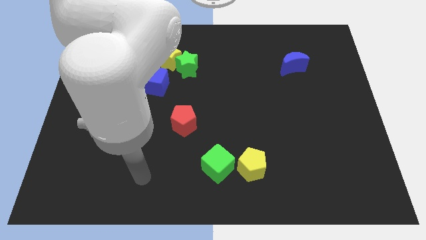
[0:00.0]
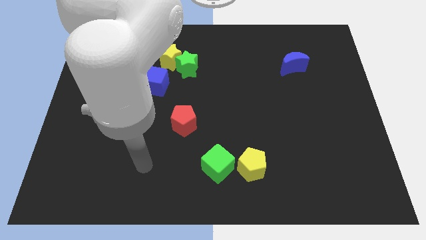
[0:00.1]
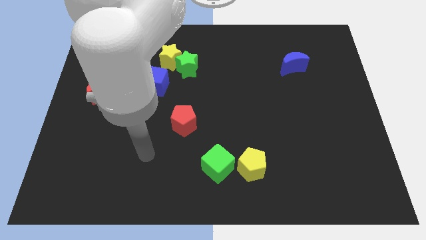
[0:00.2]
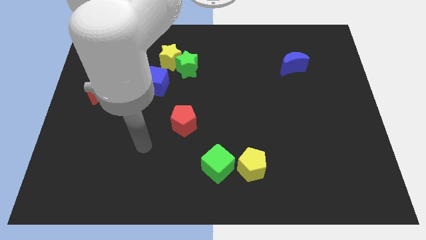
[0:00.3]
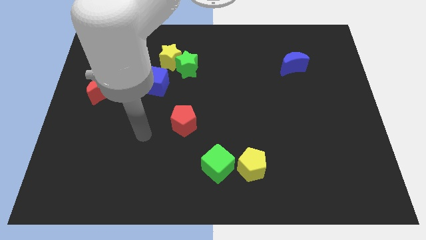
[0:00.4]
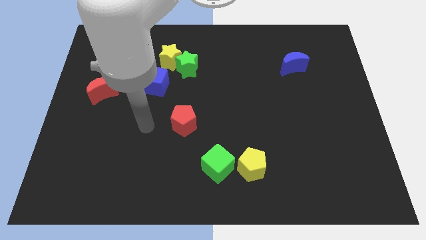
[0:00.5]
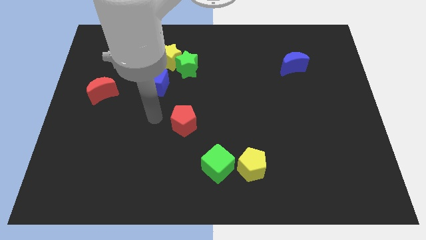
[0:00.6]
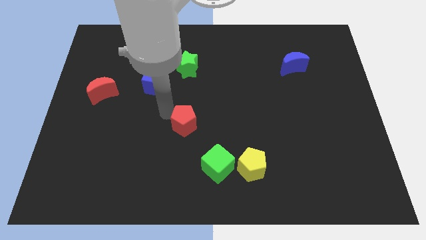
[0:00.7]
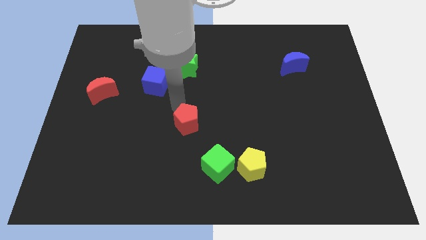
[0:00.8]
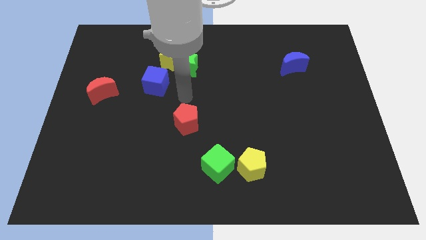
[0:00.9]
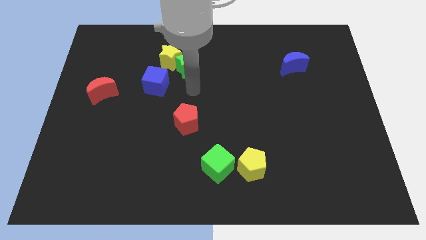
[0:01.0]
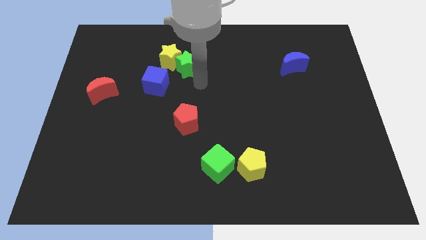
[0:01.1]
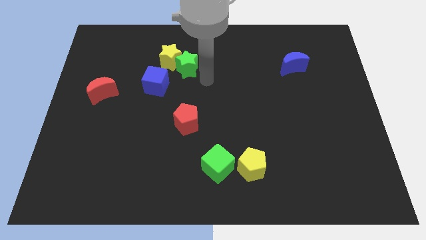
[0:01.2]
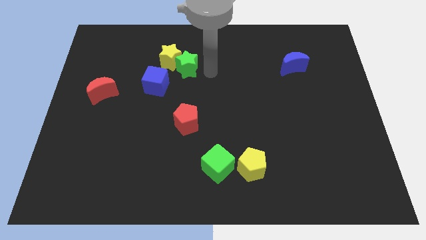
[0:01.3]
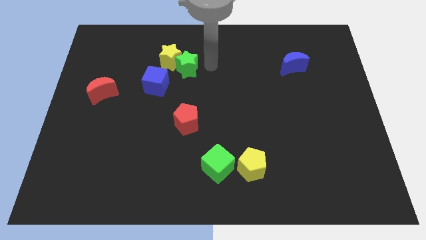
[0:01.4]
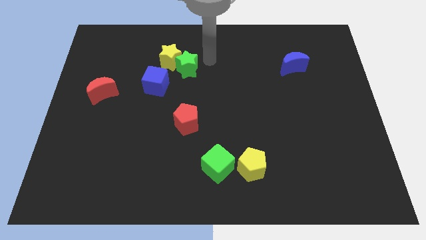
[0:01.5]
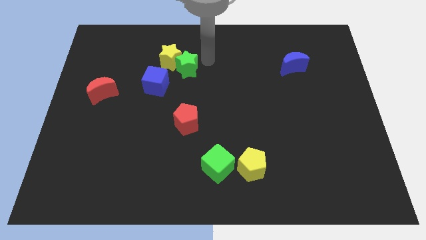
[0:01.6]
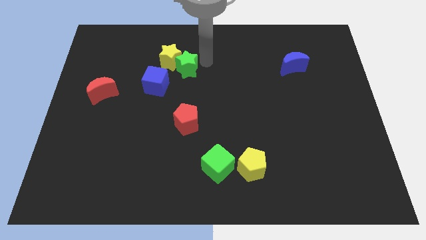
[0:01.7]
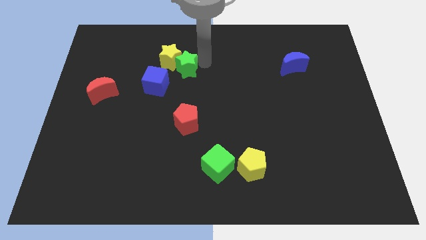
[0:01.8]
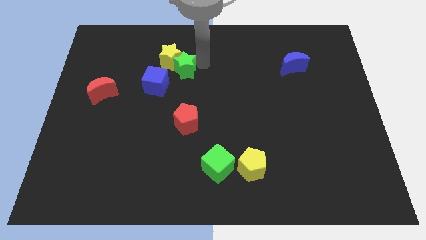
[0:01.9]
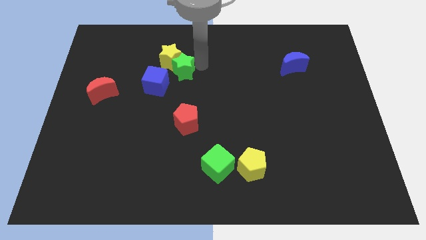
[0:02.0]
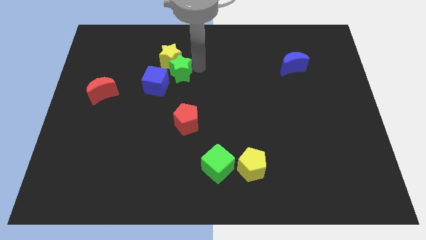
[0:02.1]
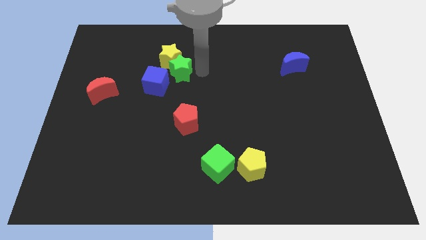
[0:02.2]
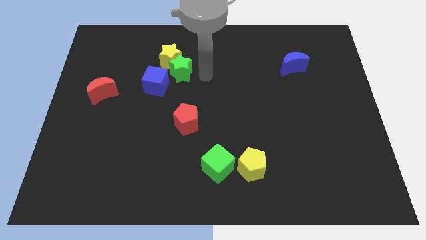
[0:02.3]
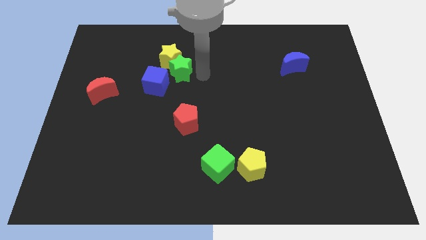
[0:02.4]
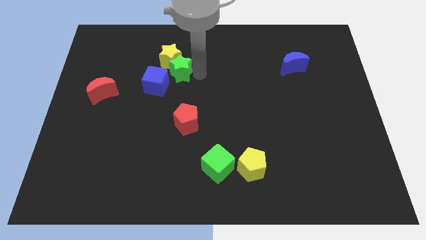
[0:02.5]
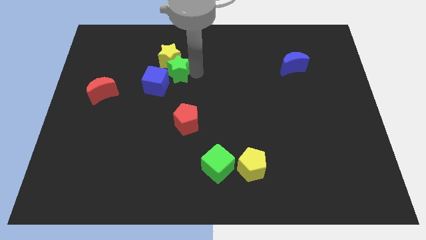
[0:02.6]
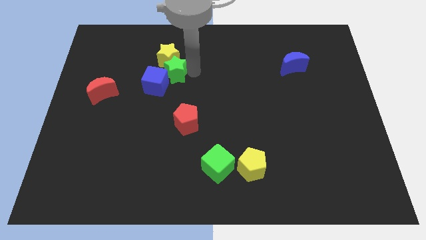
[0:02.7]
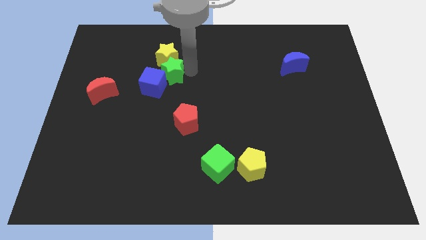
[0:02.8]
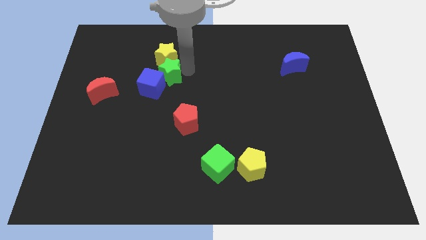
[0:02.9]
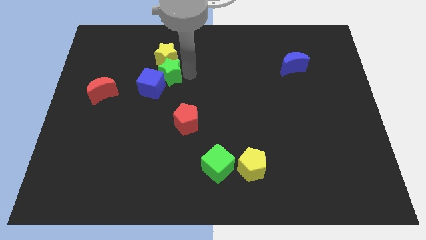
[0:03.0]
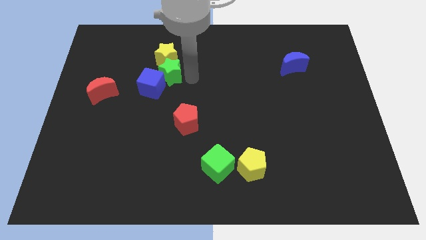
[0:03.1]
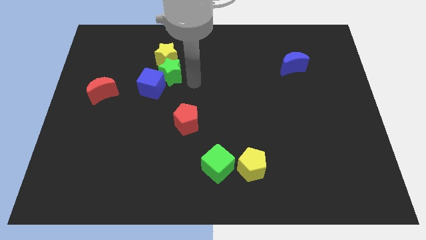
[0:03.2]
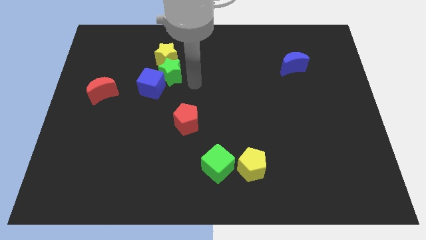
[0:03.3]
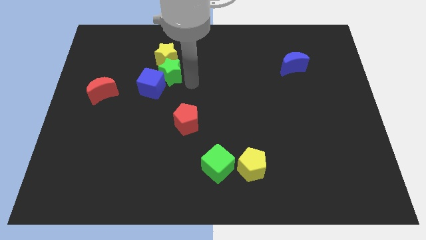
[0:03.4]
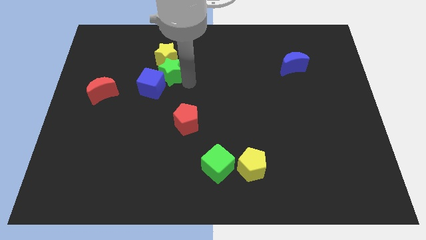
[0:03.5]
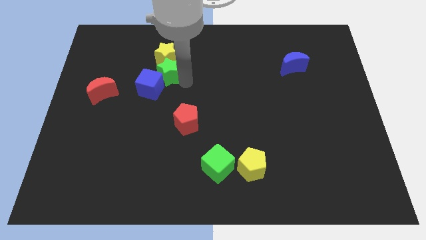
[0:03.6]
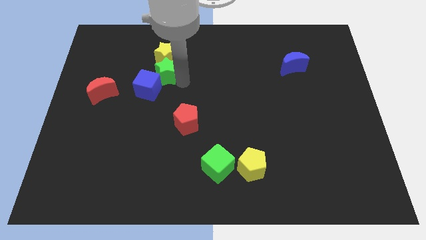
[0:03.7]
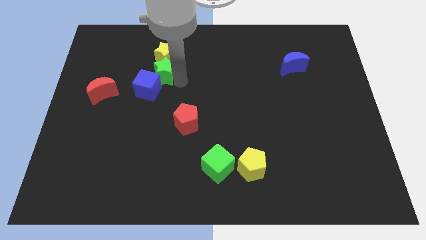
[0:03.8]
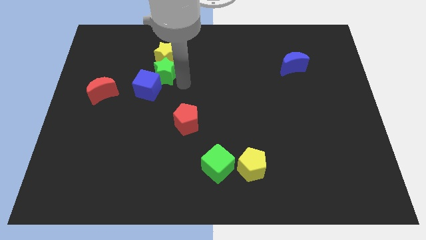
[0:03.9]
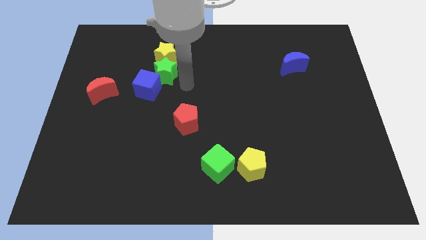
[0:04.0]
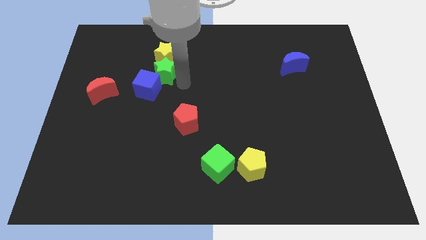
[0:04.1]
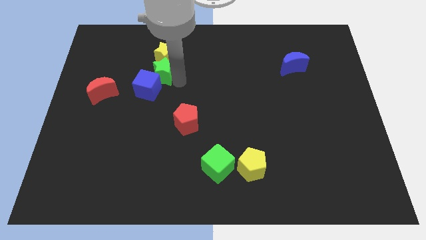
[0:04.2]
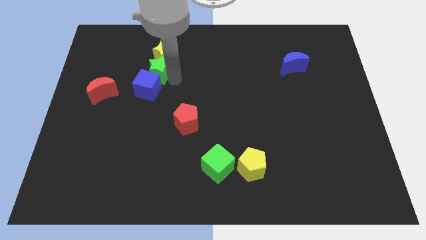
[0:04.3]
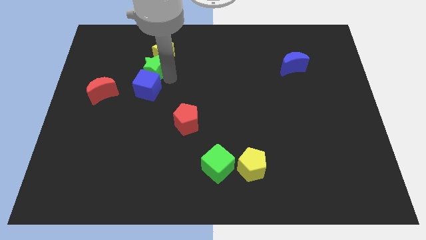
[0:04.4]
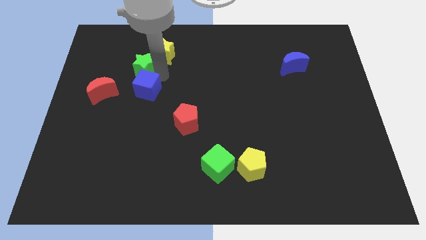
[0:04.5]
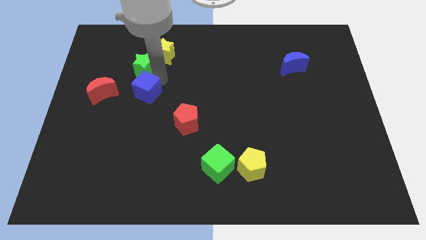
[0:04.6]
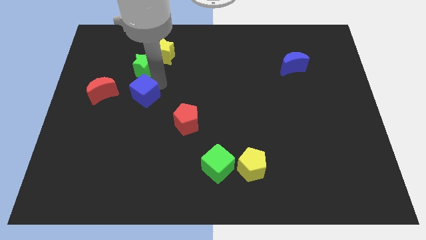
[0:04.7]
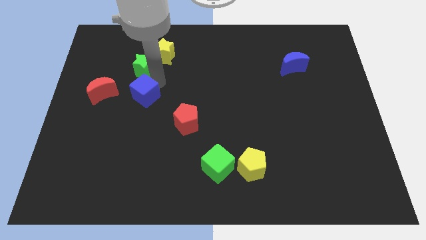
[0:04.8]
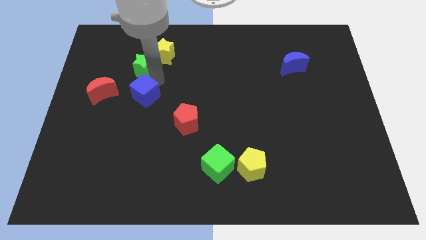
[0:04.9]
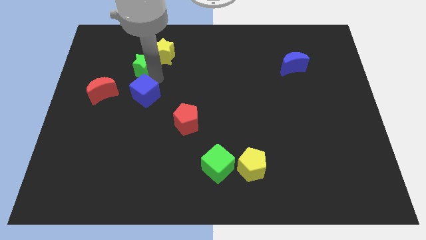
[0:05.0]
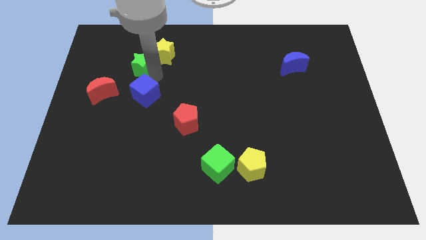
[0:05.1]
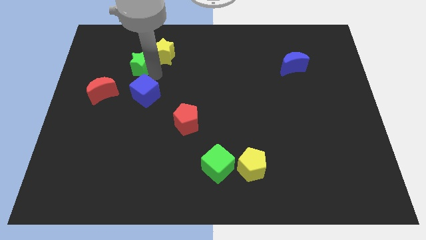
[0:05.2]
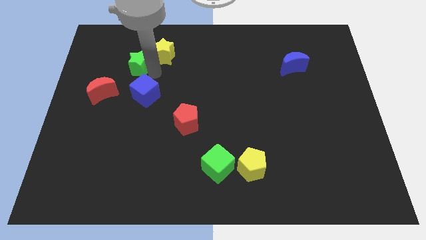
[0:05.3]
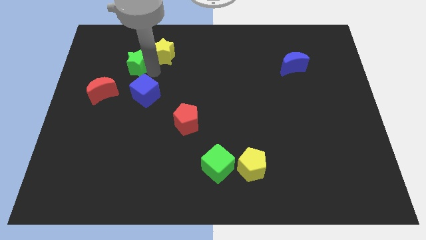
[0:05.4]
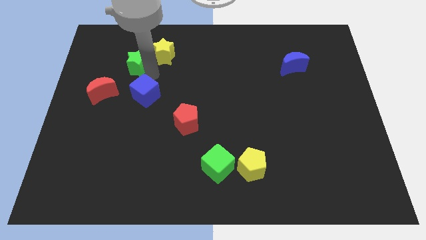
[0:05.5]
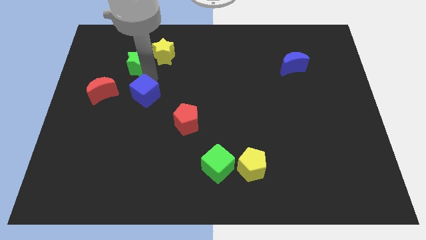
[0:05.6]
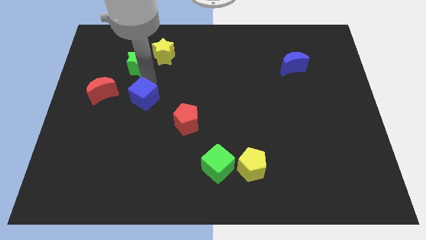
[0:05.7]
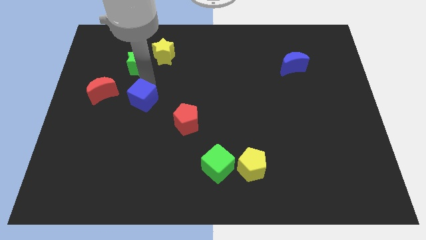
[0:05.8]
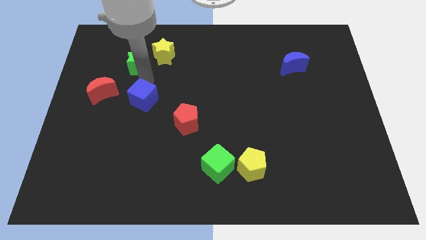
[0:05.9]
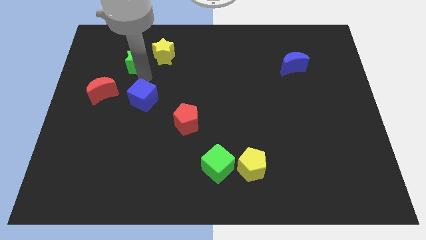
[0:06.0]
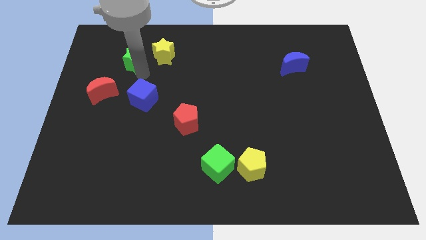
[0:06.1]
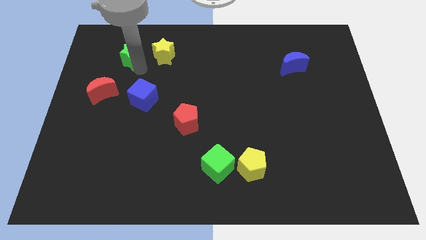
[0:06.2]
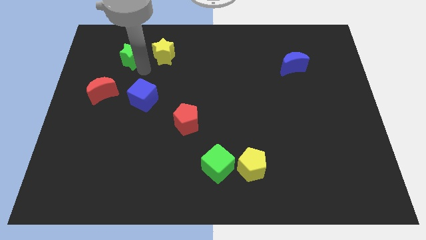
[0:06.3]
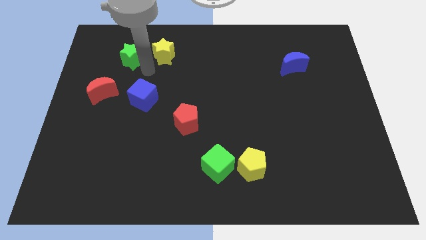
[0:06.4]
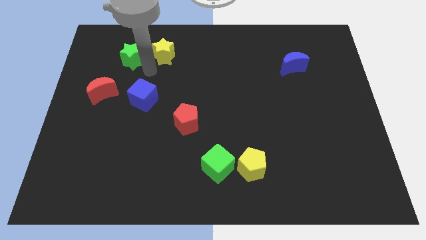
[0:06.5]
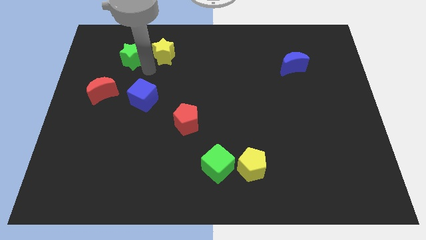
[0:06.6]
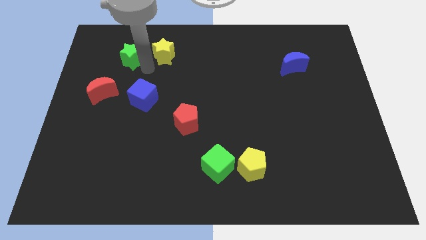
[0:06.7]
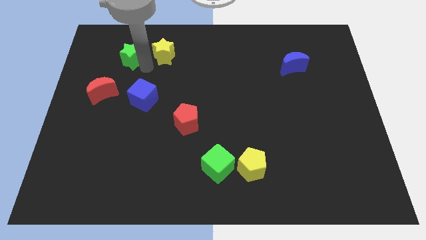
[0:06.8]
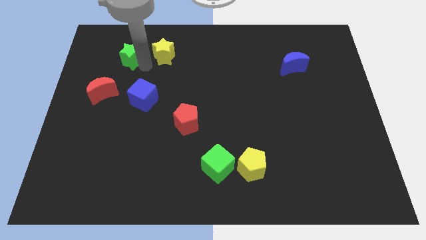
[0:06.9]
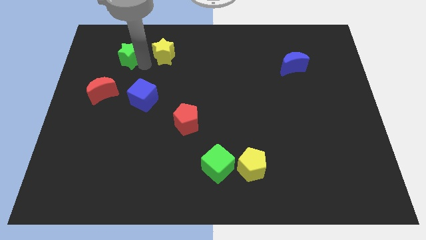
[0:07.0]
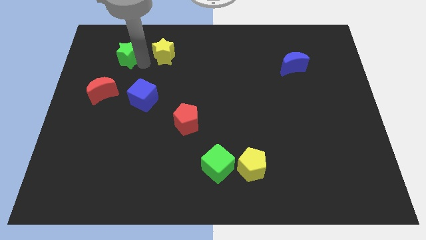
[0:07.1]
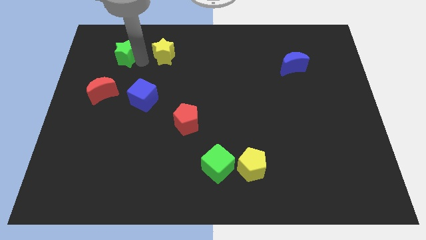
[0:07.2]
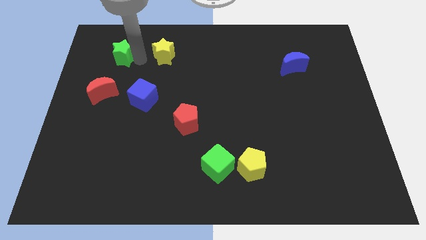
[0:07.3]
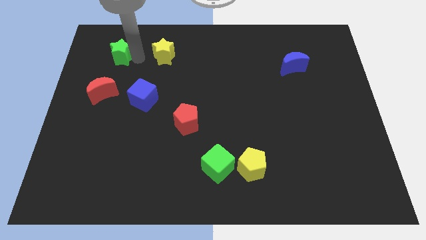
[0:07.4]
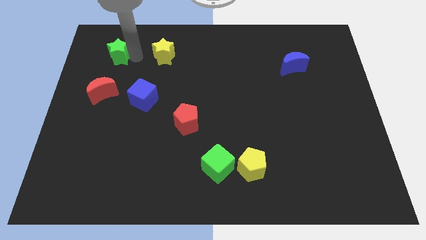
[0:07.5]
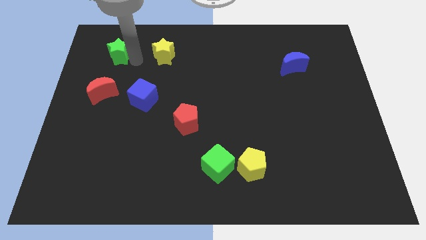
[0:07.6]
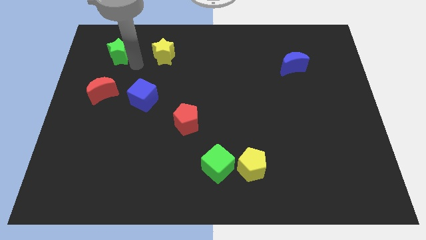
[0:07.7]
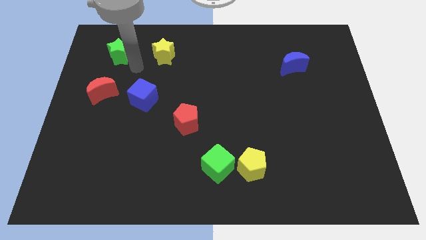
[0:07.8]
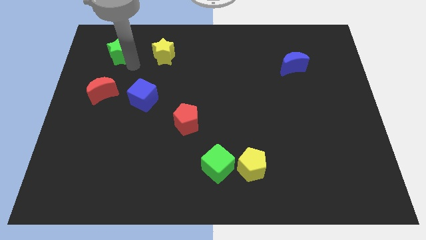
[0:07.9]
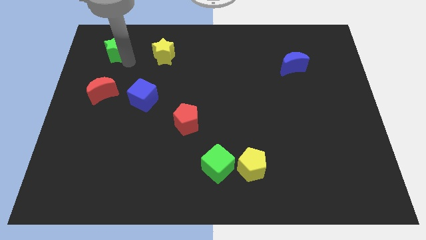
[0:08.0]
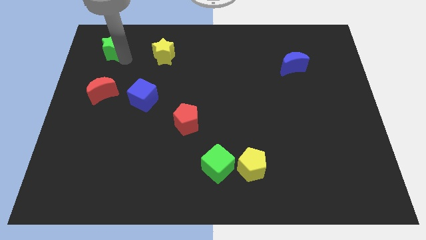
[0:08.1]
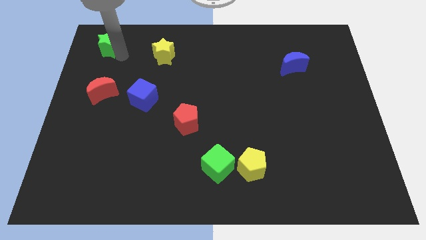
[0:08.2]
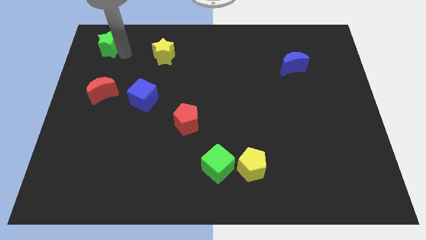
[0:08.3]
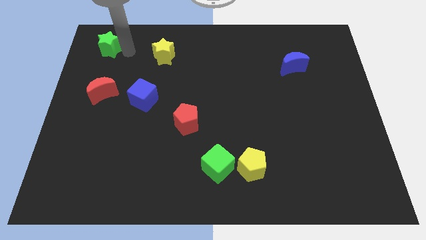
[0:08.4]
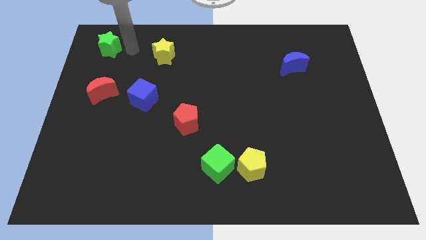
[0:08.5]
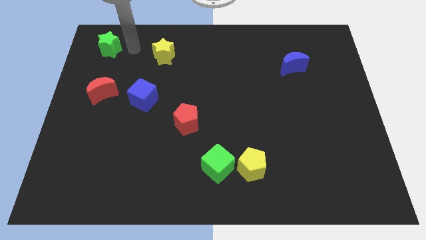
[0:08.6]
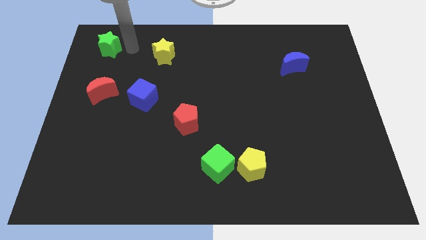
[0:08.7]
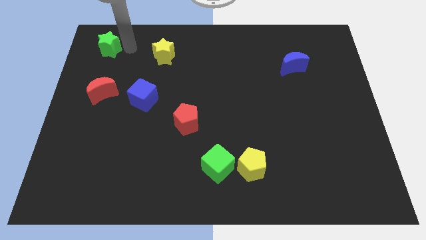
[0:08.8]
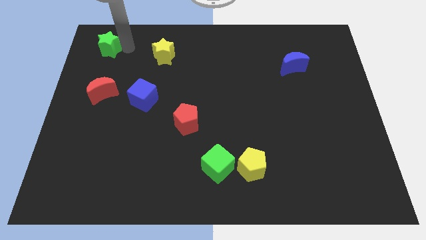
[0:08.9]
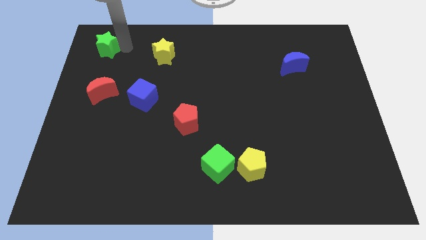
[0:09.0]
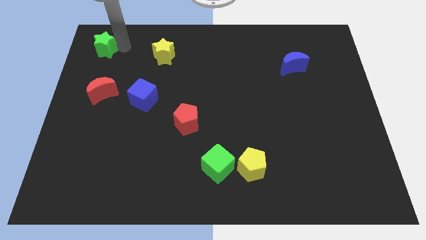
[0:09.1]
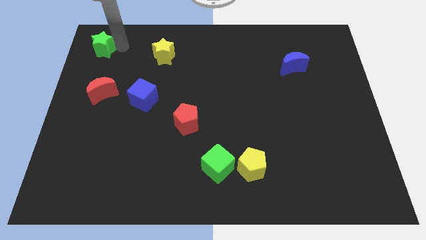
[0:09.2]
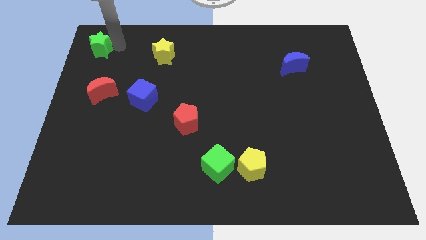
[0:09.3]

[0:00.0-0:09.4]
put the green star to the top left
